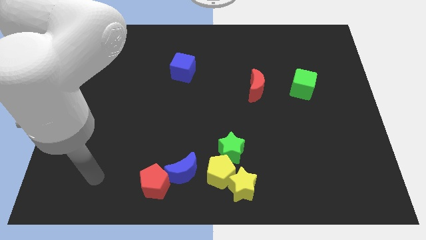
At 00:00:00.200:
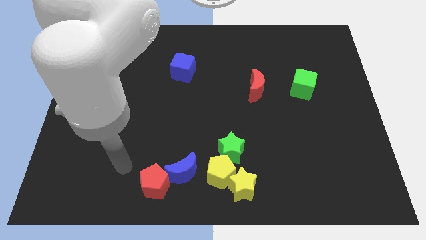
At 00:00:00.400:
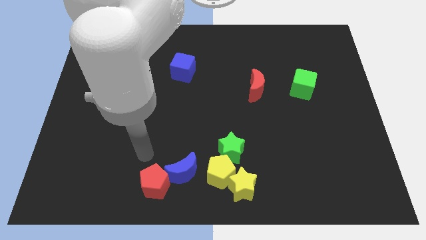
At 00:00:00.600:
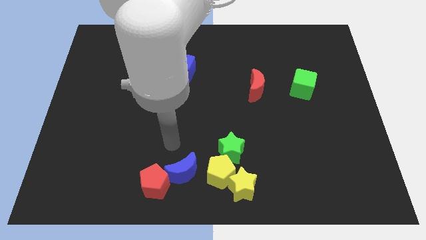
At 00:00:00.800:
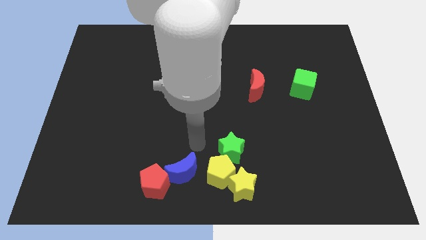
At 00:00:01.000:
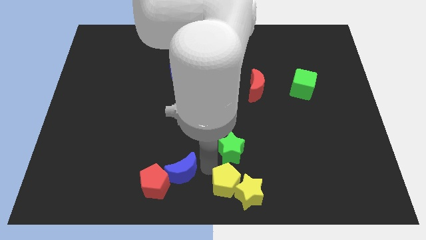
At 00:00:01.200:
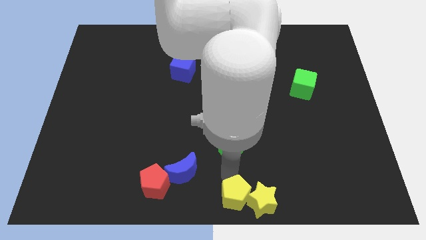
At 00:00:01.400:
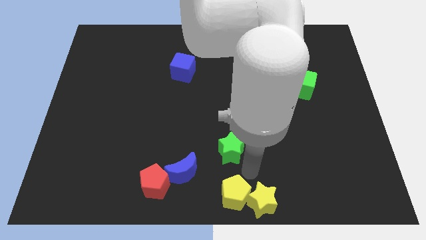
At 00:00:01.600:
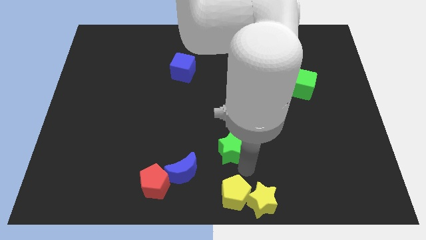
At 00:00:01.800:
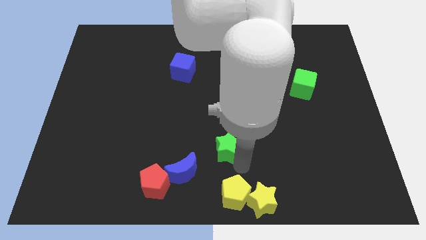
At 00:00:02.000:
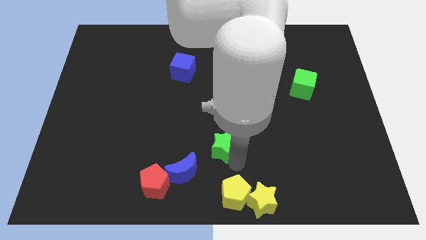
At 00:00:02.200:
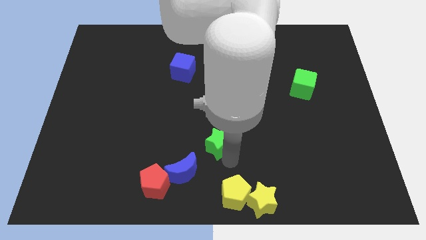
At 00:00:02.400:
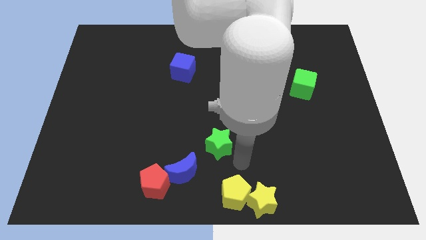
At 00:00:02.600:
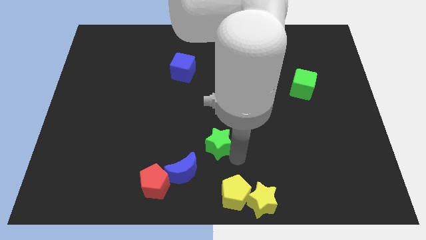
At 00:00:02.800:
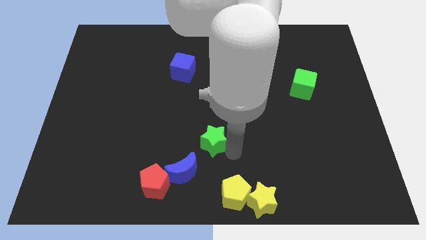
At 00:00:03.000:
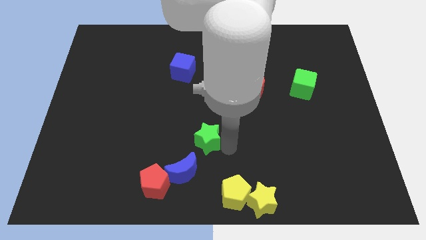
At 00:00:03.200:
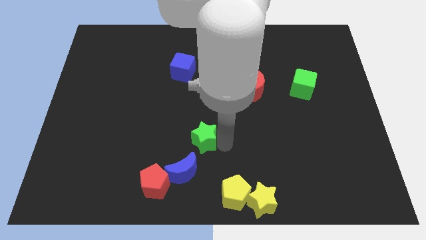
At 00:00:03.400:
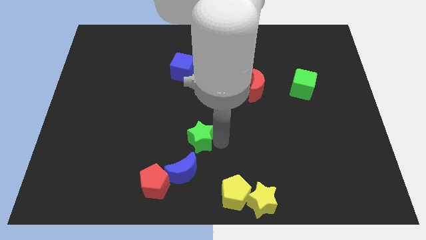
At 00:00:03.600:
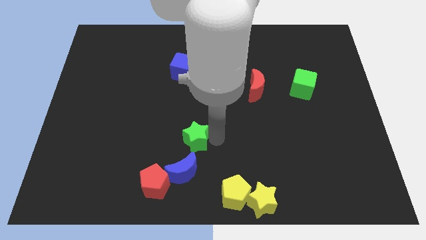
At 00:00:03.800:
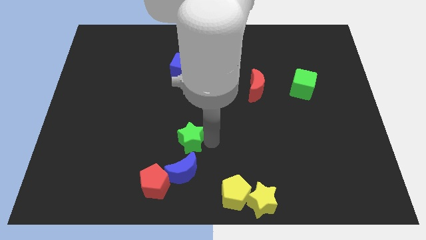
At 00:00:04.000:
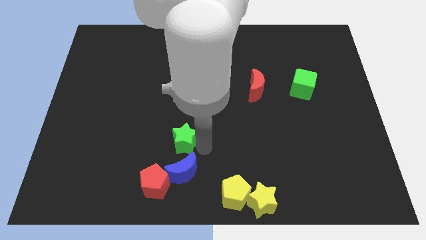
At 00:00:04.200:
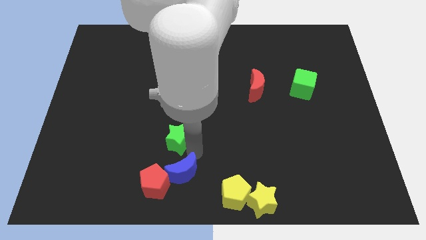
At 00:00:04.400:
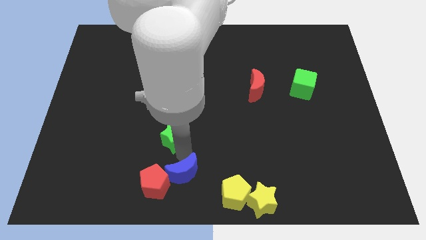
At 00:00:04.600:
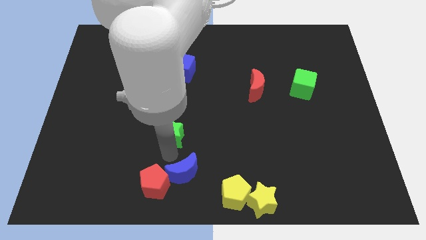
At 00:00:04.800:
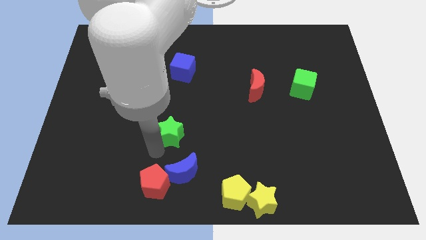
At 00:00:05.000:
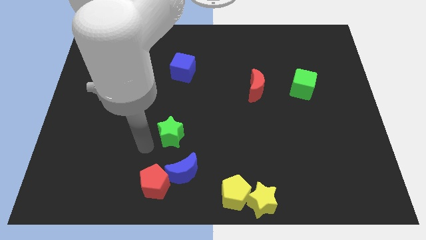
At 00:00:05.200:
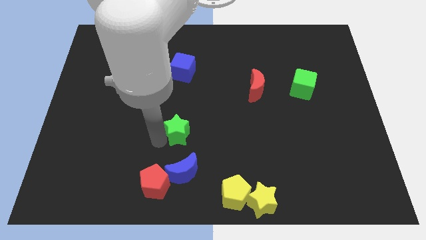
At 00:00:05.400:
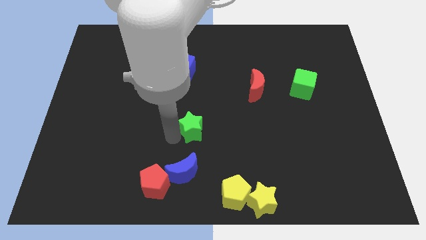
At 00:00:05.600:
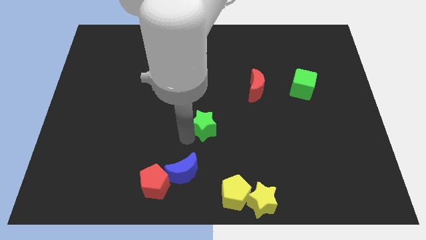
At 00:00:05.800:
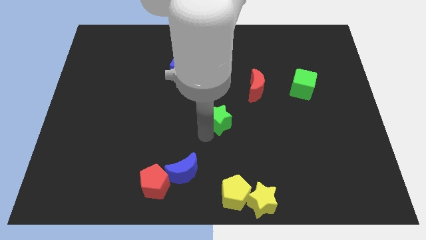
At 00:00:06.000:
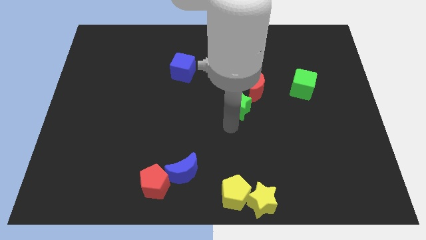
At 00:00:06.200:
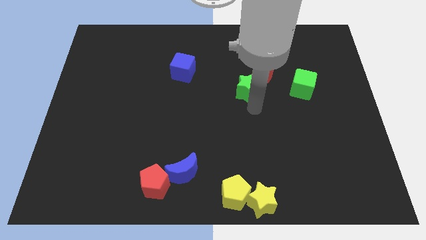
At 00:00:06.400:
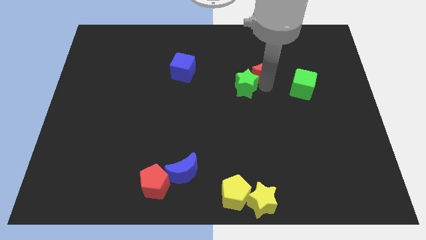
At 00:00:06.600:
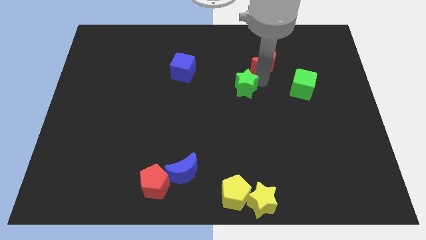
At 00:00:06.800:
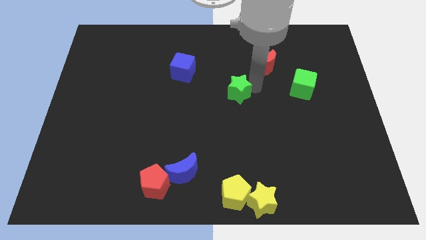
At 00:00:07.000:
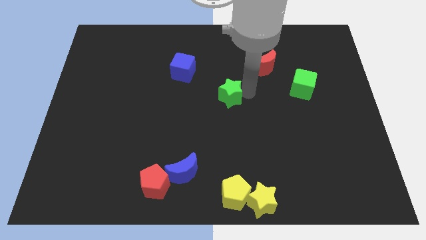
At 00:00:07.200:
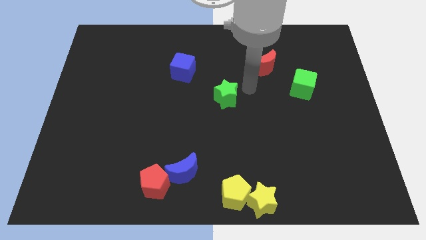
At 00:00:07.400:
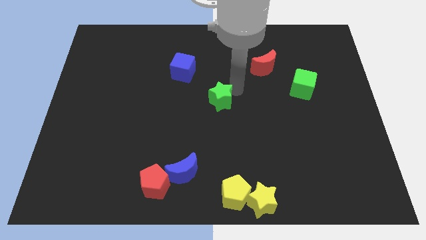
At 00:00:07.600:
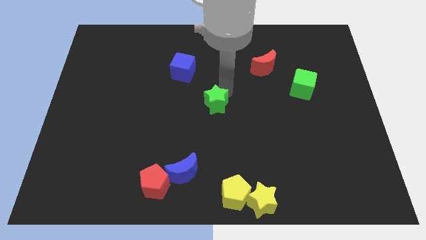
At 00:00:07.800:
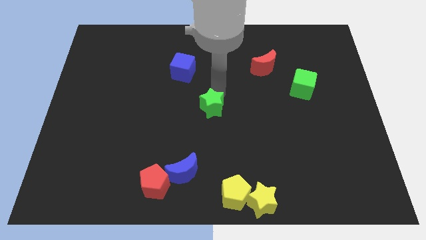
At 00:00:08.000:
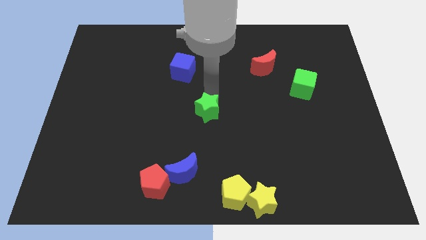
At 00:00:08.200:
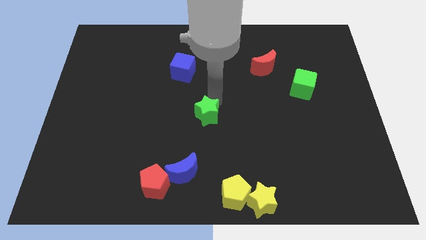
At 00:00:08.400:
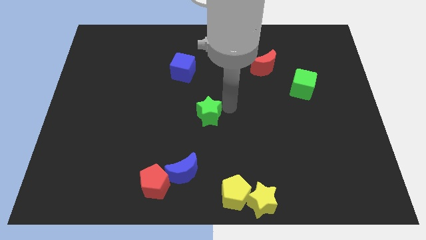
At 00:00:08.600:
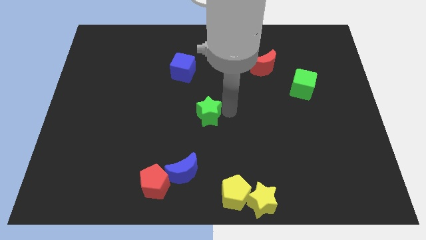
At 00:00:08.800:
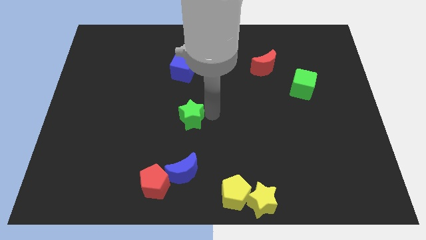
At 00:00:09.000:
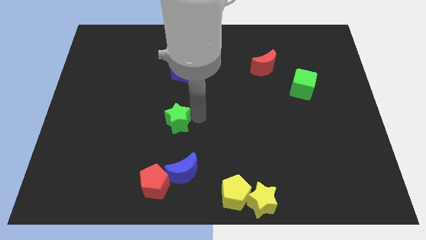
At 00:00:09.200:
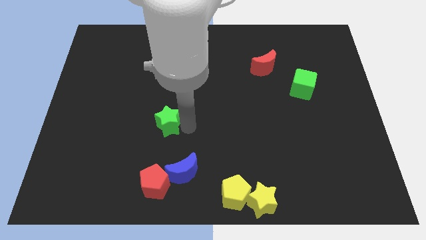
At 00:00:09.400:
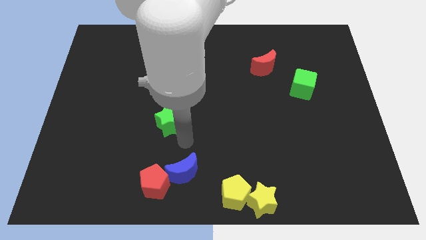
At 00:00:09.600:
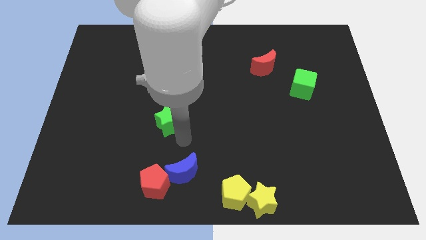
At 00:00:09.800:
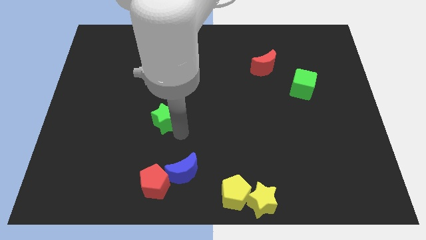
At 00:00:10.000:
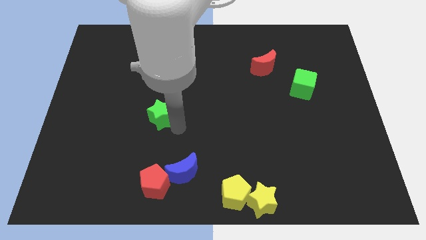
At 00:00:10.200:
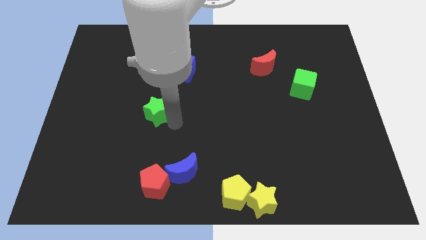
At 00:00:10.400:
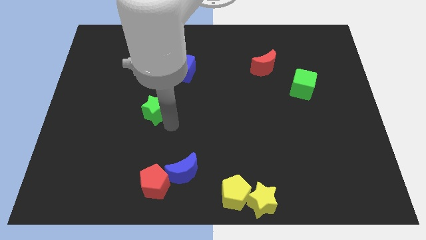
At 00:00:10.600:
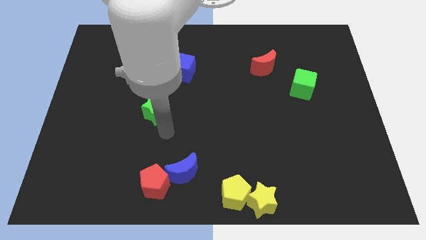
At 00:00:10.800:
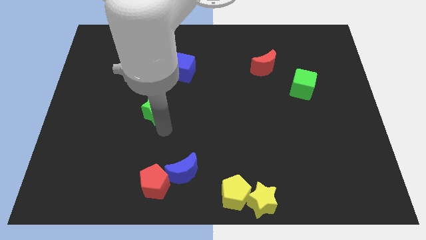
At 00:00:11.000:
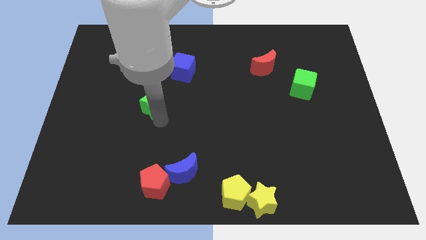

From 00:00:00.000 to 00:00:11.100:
push the green star up and left

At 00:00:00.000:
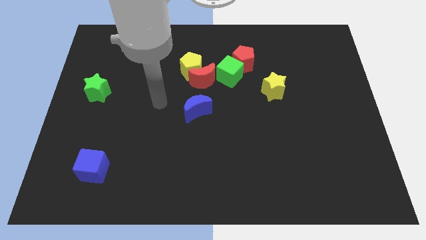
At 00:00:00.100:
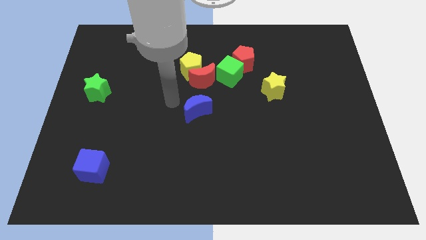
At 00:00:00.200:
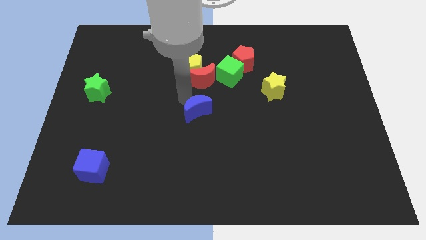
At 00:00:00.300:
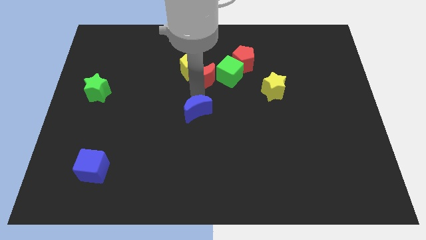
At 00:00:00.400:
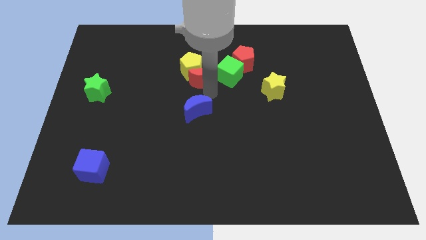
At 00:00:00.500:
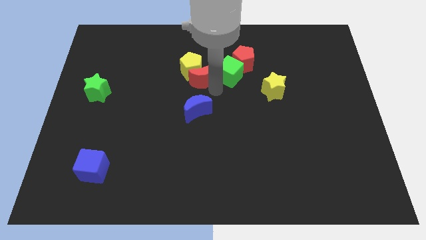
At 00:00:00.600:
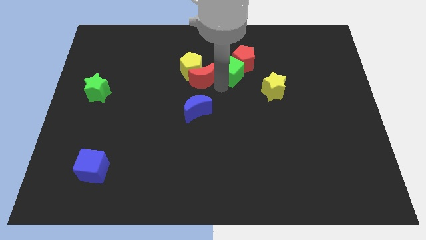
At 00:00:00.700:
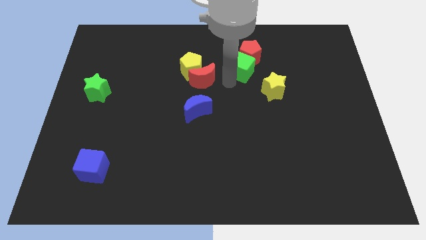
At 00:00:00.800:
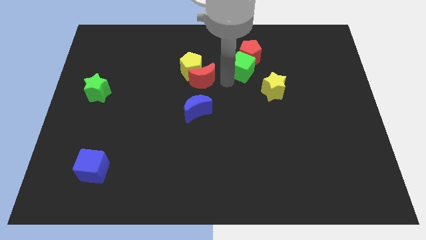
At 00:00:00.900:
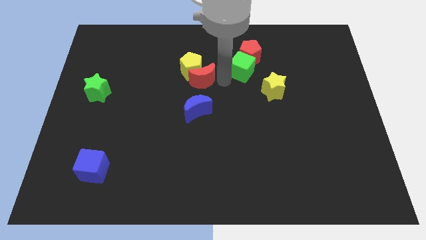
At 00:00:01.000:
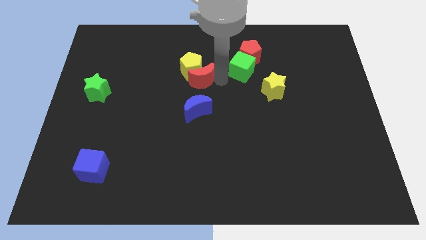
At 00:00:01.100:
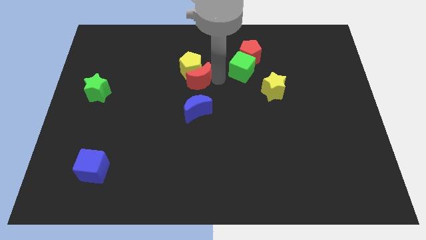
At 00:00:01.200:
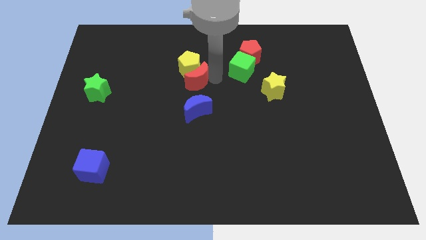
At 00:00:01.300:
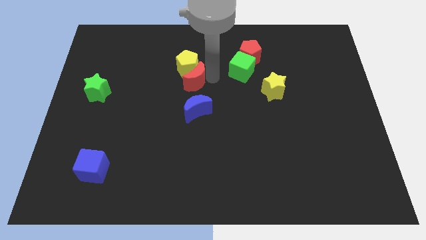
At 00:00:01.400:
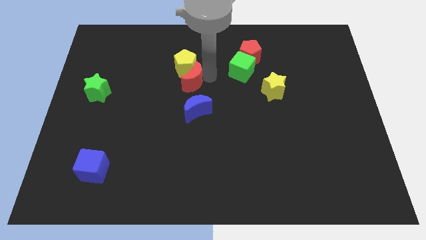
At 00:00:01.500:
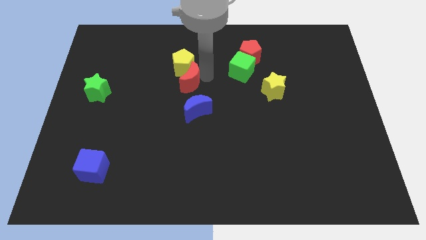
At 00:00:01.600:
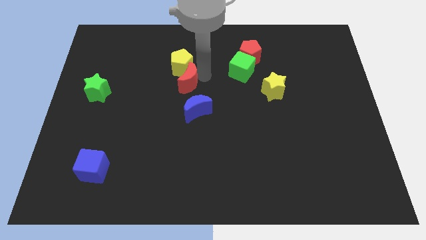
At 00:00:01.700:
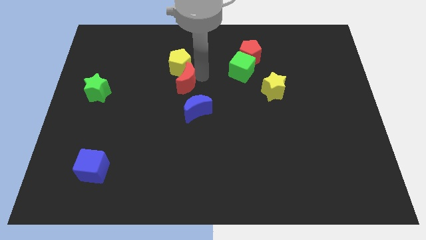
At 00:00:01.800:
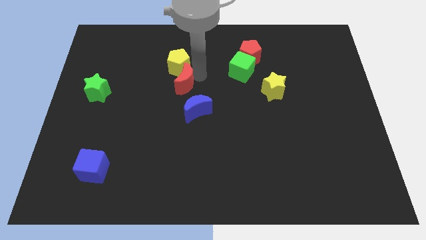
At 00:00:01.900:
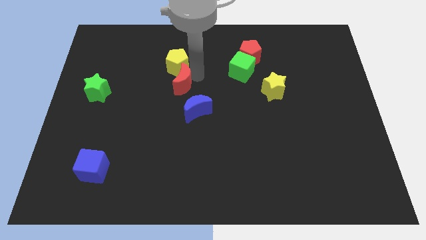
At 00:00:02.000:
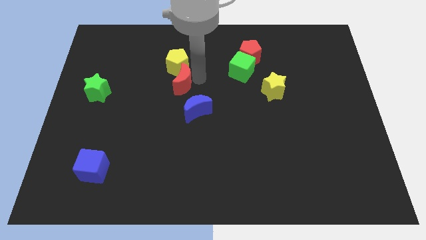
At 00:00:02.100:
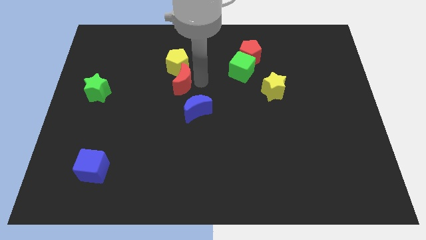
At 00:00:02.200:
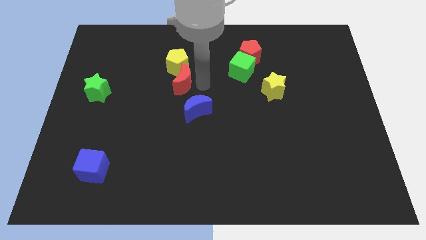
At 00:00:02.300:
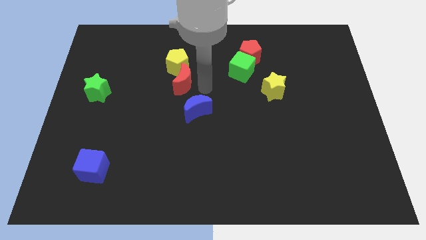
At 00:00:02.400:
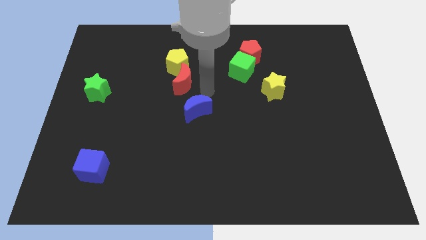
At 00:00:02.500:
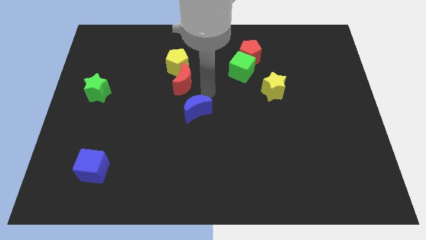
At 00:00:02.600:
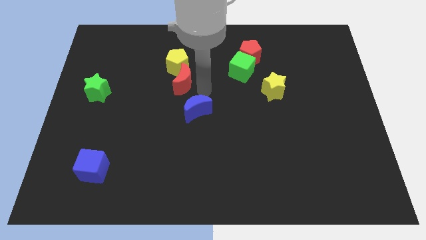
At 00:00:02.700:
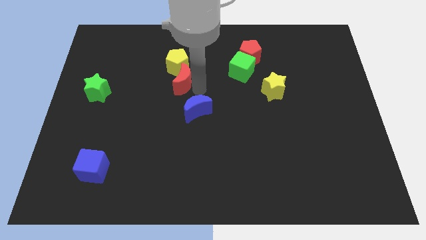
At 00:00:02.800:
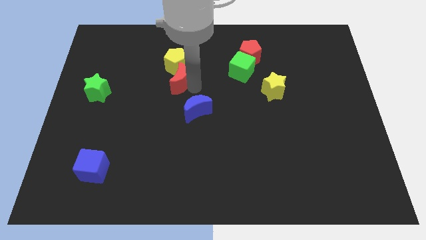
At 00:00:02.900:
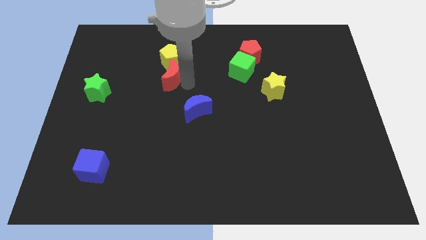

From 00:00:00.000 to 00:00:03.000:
push the red moon to the left slightly
